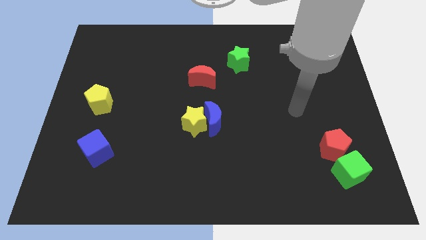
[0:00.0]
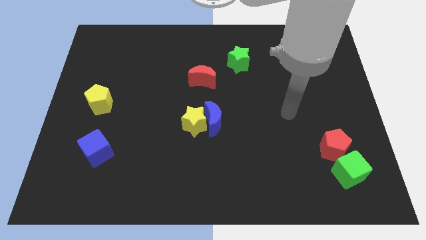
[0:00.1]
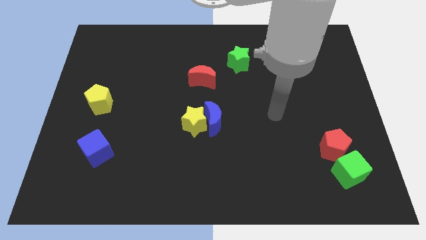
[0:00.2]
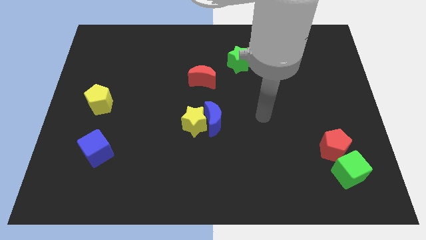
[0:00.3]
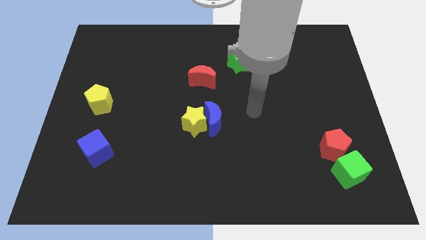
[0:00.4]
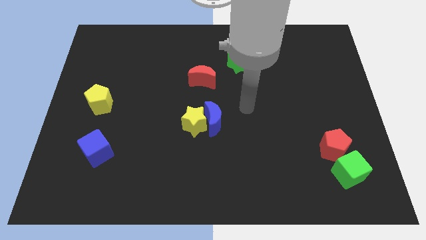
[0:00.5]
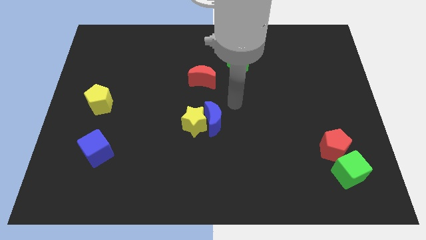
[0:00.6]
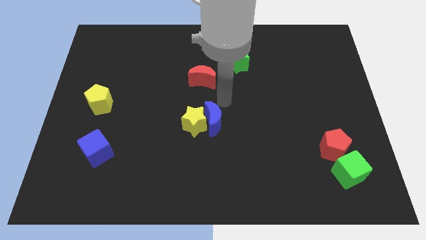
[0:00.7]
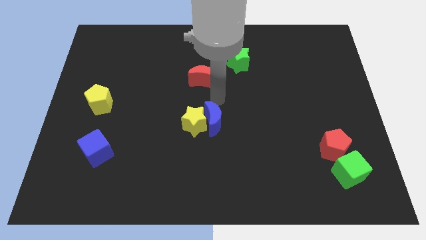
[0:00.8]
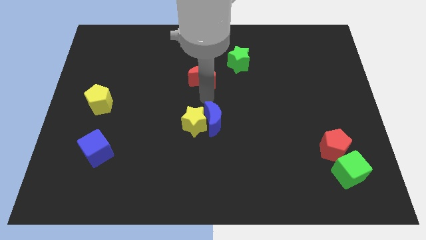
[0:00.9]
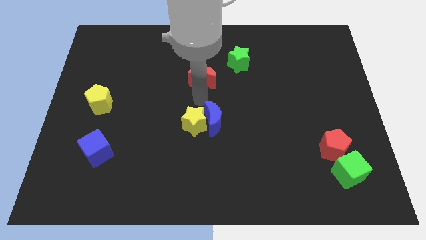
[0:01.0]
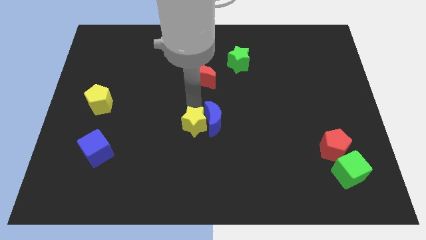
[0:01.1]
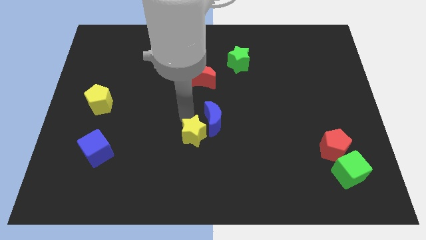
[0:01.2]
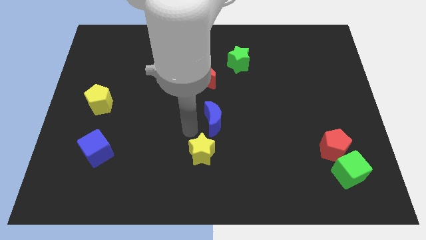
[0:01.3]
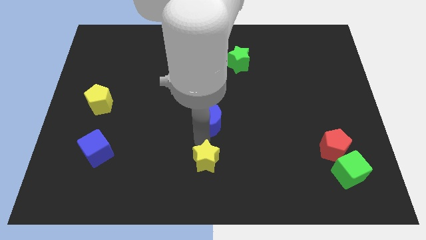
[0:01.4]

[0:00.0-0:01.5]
move the blue moon away from the yellow star

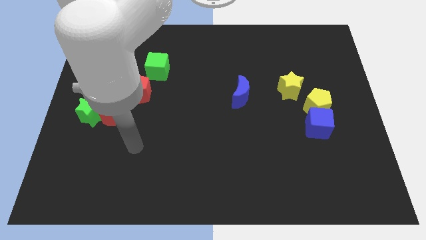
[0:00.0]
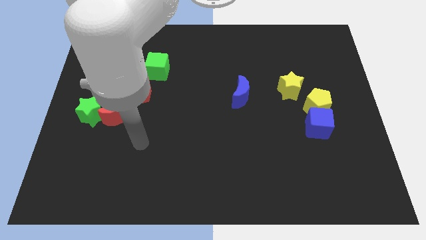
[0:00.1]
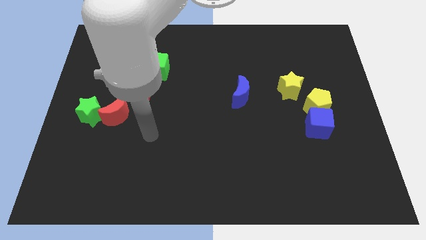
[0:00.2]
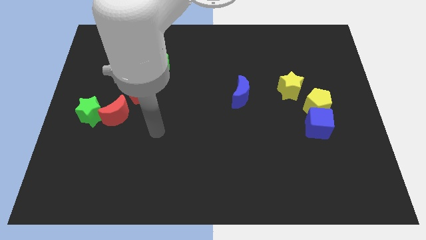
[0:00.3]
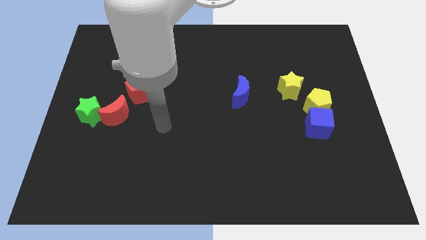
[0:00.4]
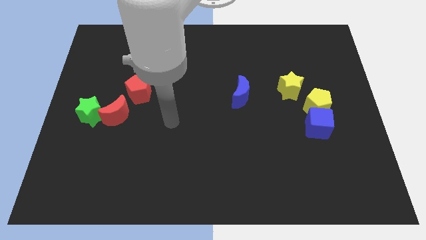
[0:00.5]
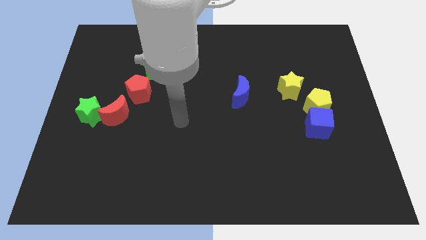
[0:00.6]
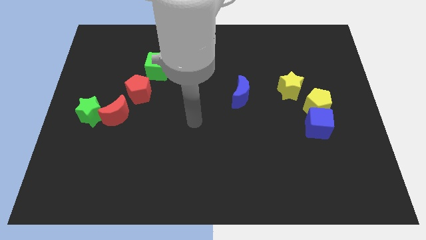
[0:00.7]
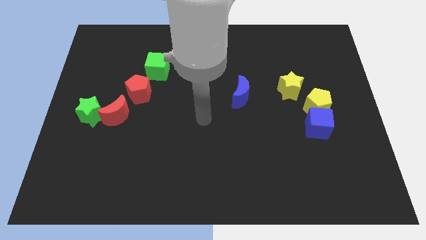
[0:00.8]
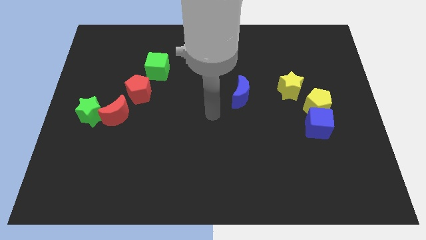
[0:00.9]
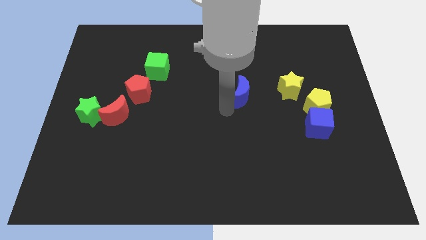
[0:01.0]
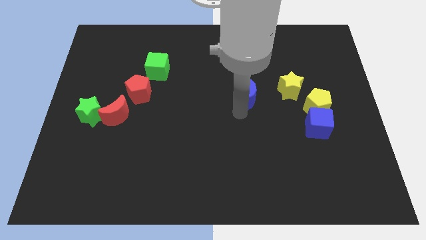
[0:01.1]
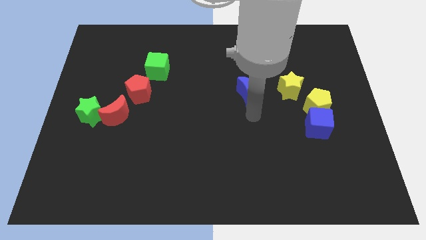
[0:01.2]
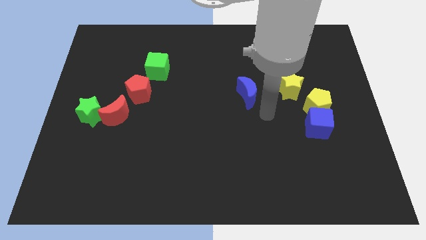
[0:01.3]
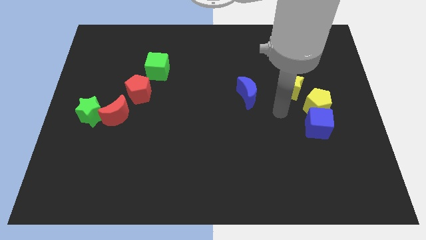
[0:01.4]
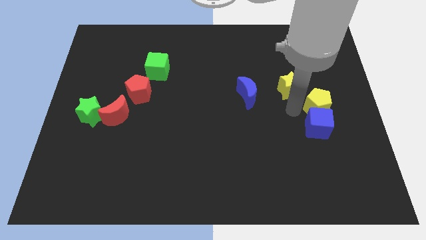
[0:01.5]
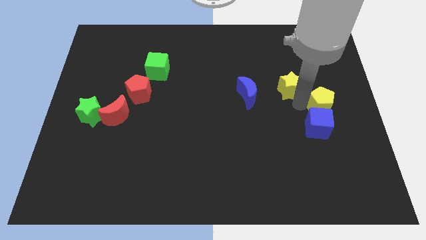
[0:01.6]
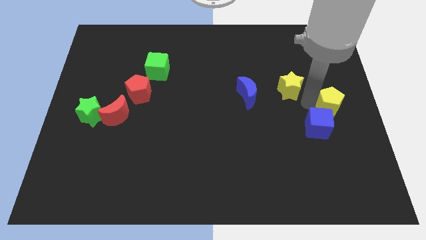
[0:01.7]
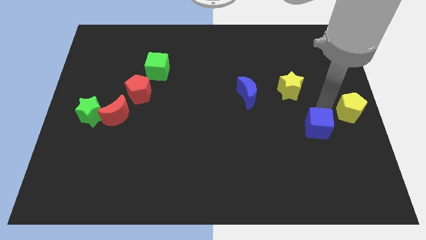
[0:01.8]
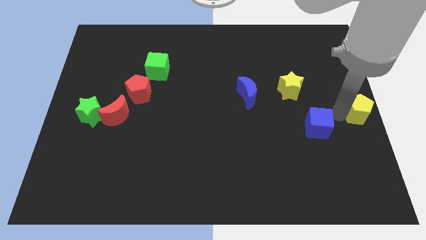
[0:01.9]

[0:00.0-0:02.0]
move the blue cube away from the yellow pentagon

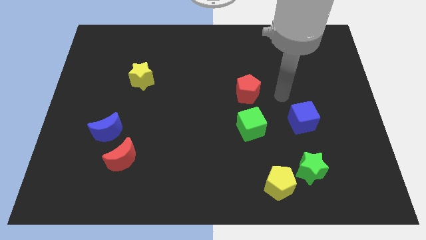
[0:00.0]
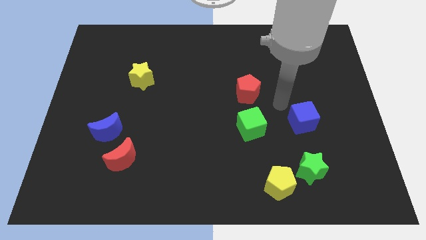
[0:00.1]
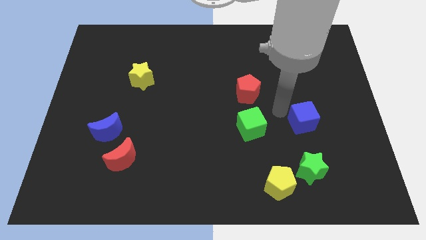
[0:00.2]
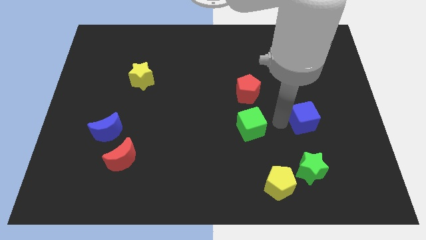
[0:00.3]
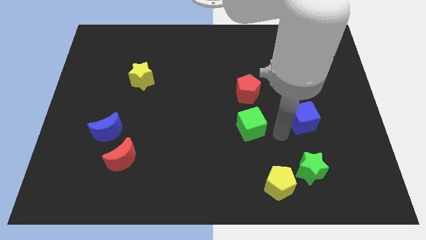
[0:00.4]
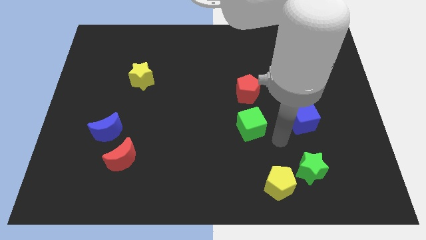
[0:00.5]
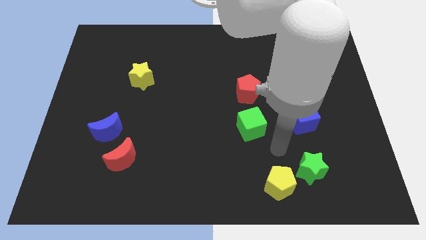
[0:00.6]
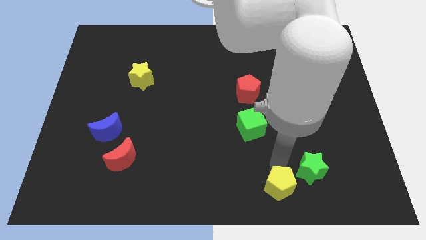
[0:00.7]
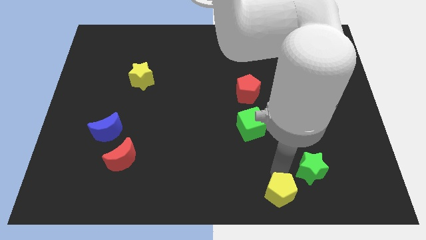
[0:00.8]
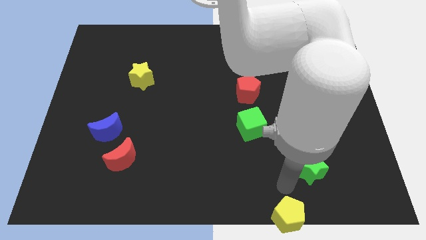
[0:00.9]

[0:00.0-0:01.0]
move the green star away from the yellow pentagon

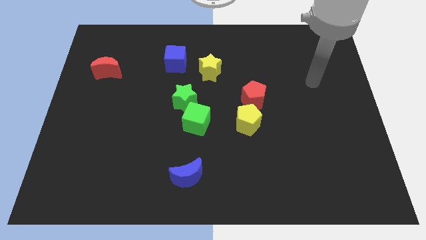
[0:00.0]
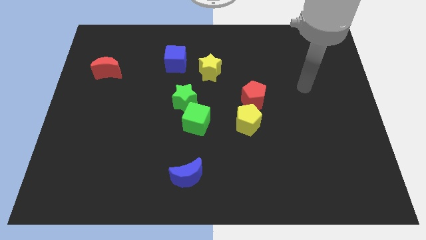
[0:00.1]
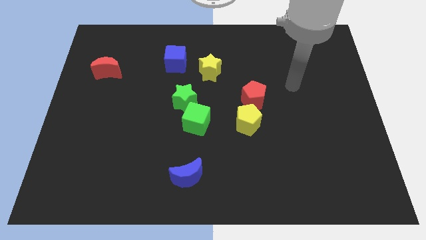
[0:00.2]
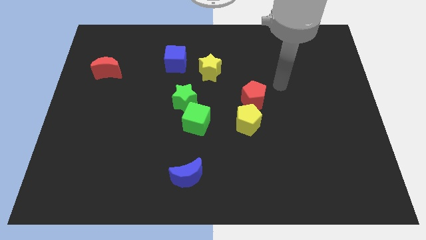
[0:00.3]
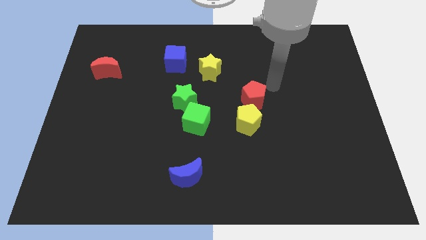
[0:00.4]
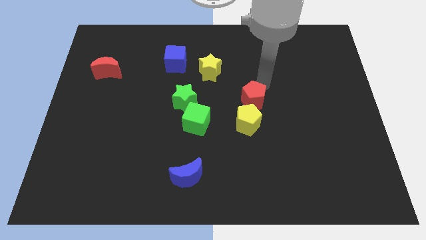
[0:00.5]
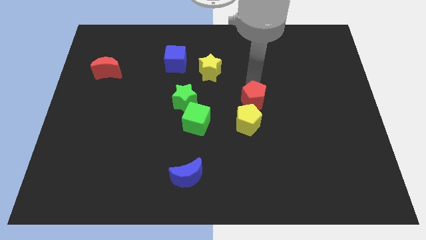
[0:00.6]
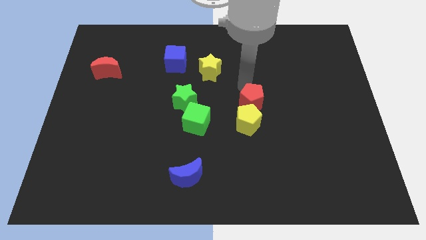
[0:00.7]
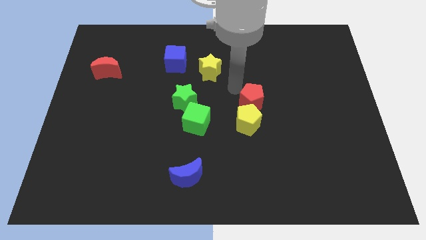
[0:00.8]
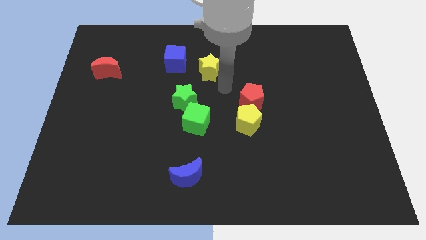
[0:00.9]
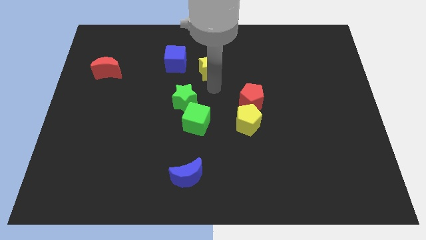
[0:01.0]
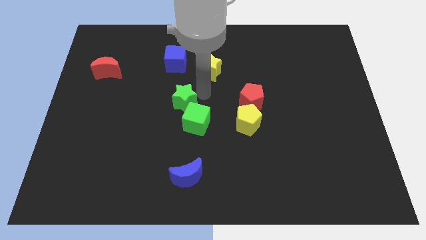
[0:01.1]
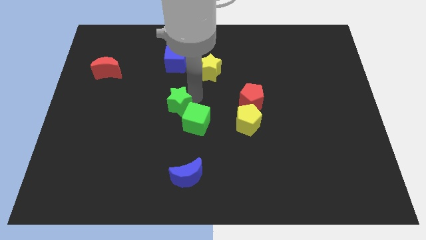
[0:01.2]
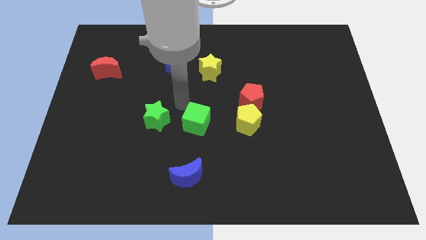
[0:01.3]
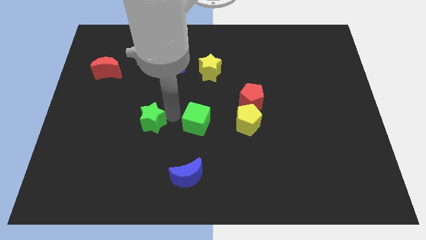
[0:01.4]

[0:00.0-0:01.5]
move the green cube away from the green star

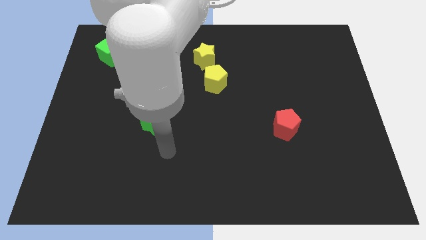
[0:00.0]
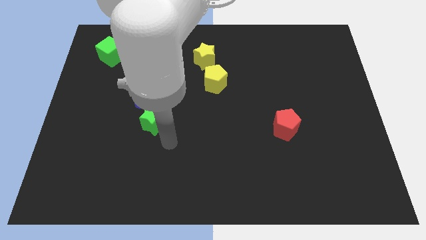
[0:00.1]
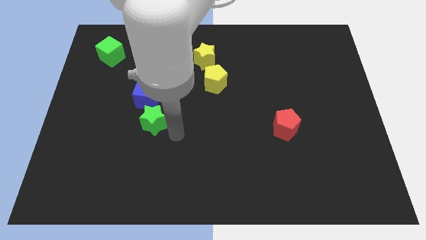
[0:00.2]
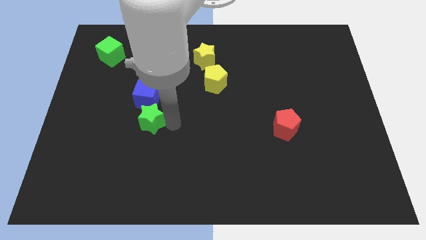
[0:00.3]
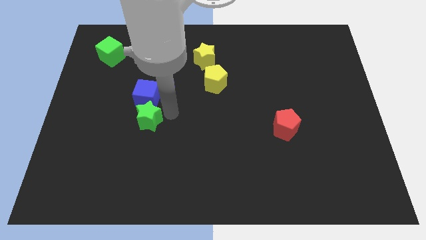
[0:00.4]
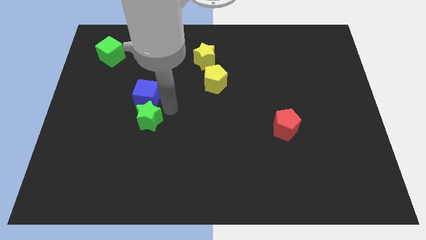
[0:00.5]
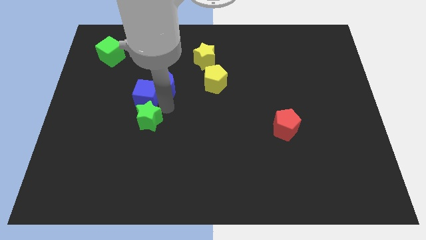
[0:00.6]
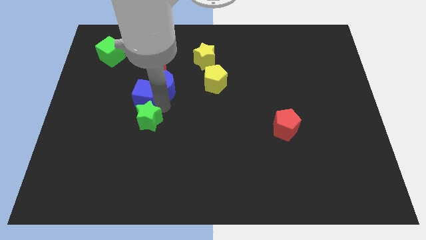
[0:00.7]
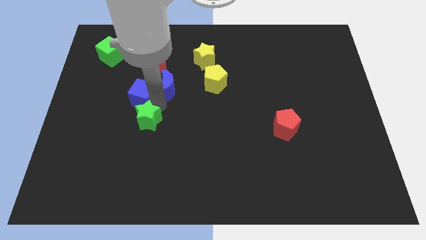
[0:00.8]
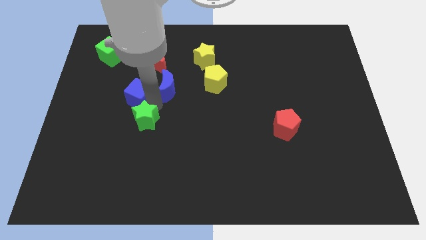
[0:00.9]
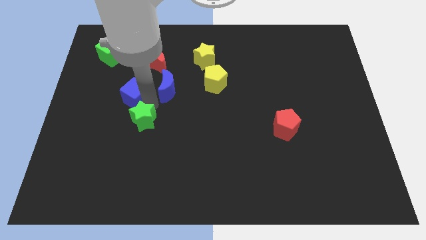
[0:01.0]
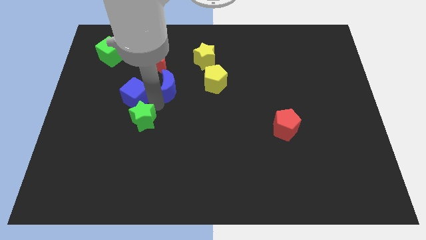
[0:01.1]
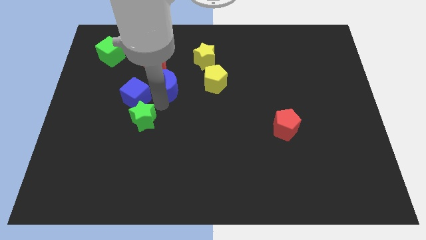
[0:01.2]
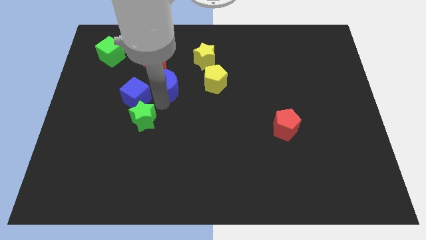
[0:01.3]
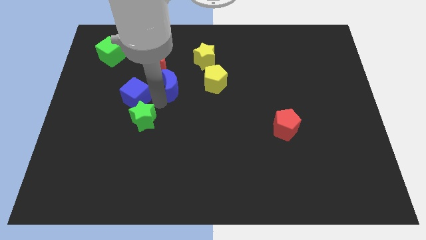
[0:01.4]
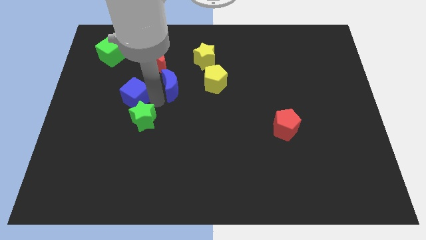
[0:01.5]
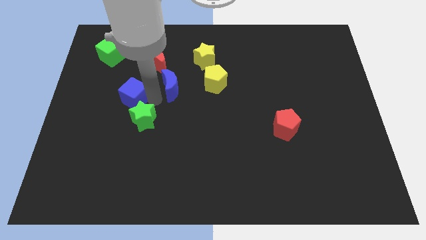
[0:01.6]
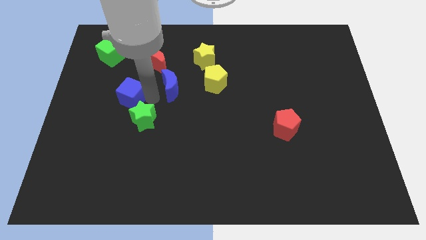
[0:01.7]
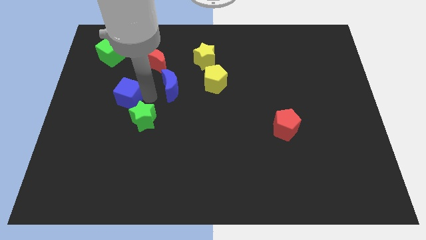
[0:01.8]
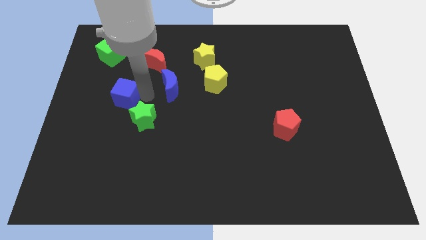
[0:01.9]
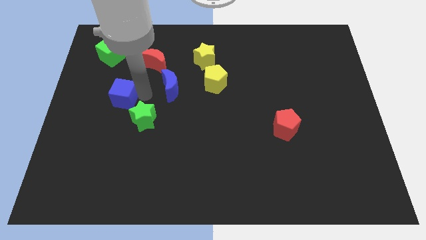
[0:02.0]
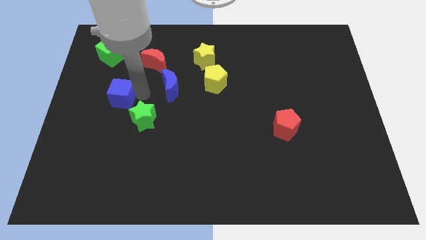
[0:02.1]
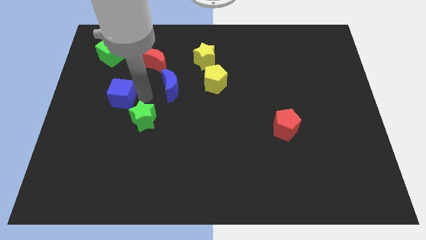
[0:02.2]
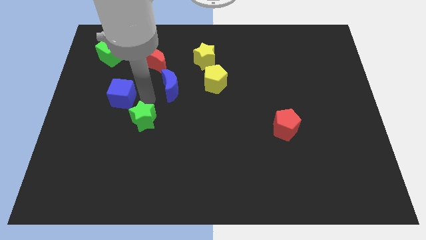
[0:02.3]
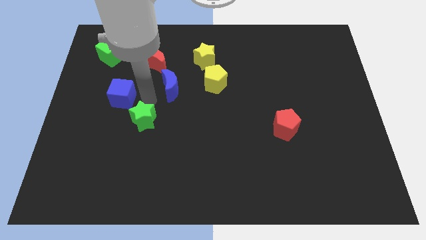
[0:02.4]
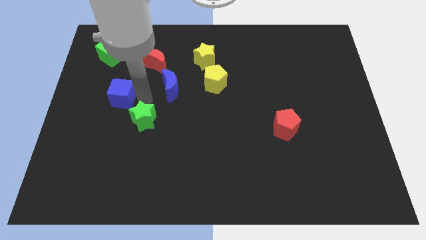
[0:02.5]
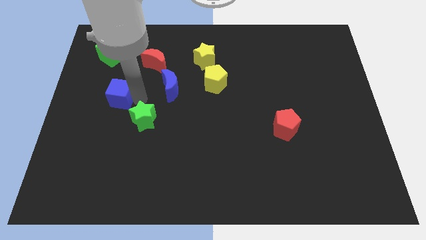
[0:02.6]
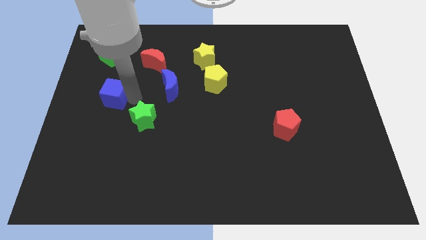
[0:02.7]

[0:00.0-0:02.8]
separate the blue cube from the blue moon and green star

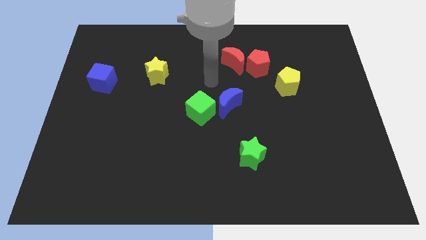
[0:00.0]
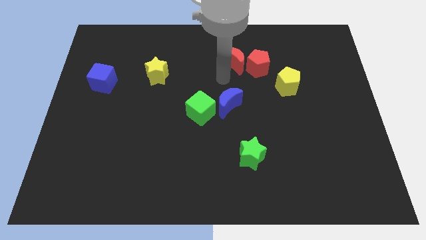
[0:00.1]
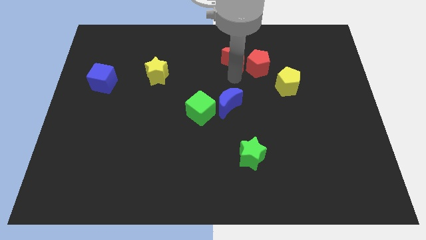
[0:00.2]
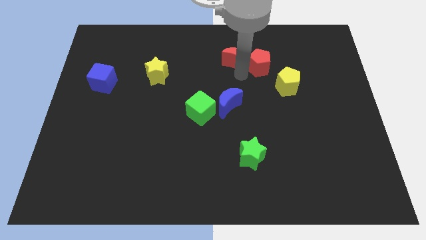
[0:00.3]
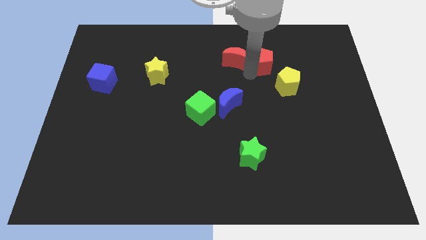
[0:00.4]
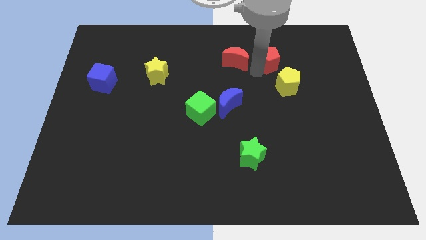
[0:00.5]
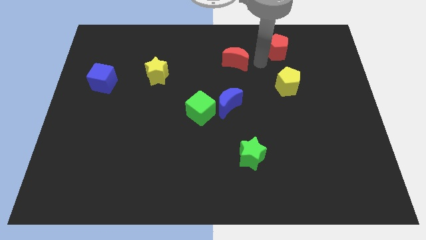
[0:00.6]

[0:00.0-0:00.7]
separate the red moon from the red pentagon
